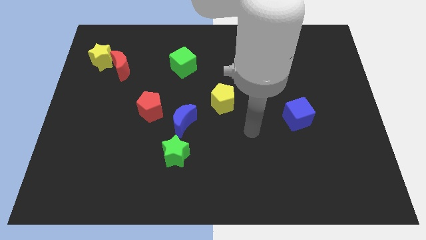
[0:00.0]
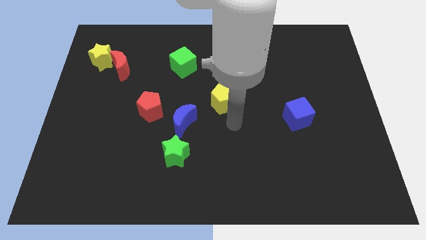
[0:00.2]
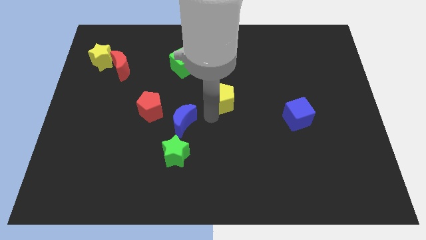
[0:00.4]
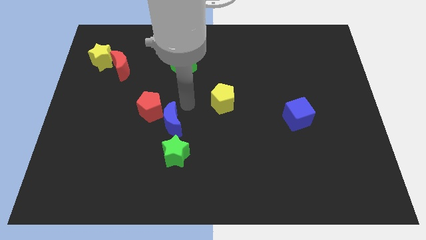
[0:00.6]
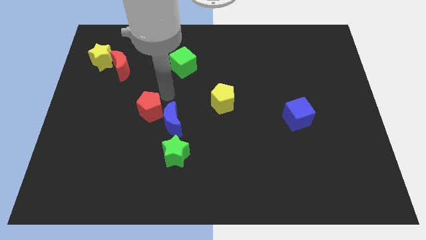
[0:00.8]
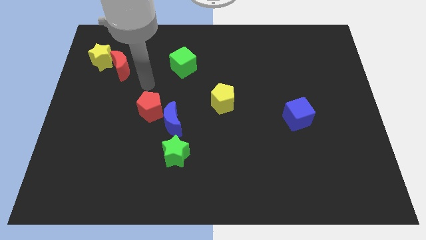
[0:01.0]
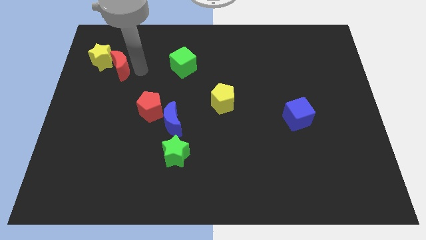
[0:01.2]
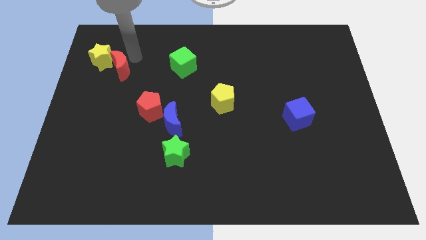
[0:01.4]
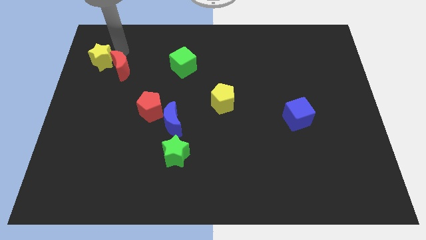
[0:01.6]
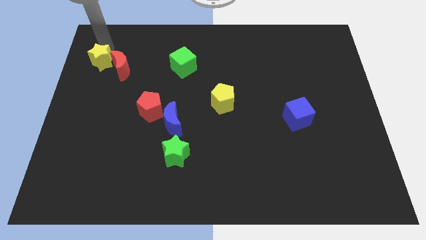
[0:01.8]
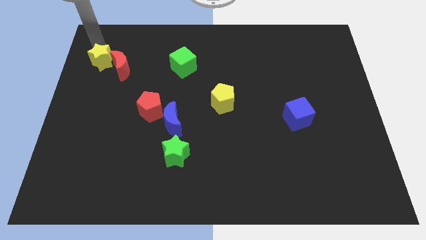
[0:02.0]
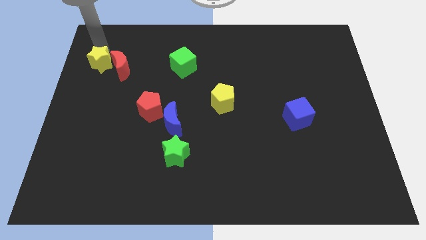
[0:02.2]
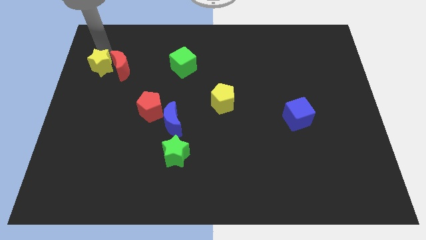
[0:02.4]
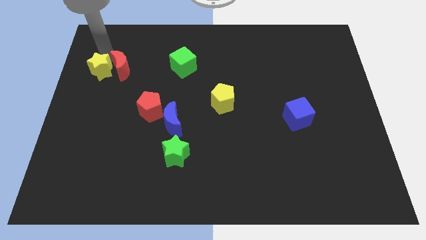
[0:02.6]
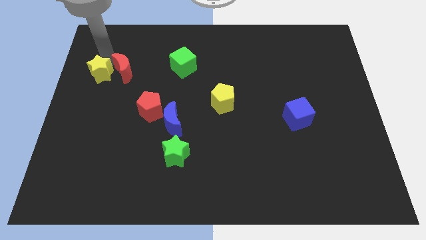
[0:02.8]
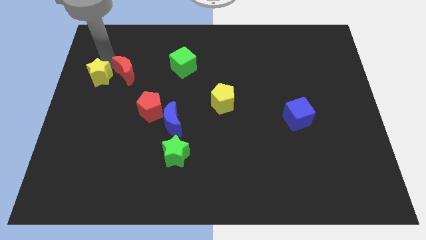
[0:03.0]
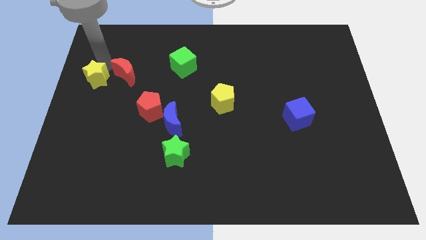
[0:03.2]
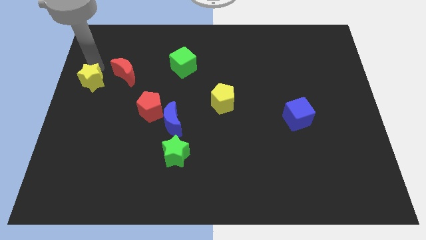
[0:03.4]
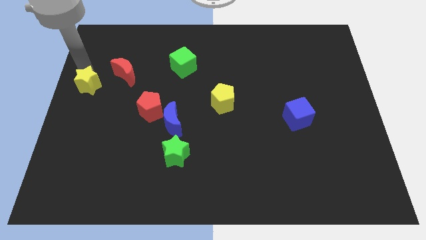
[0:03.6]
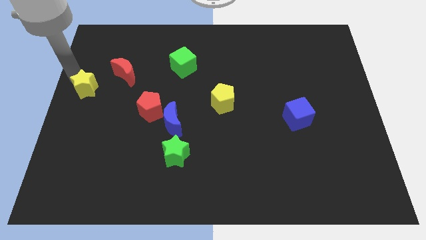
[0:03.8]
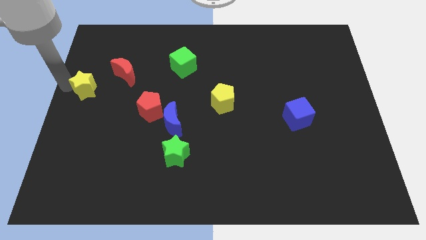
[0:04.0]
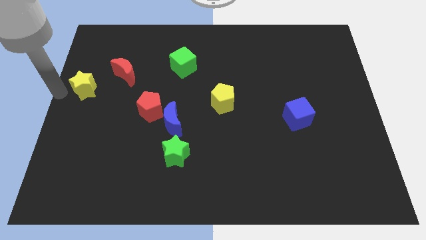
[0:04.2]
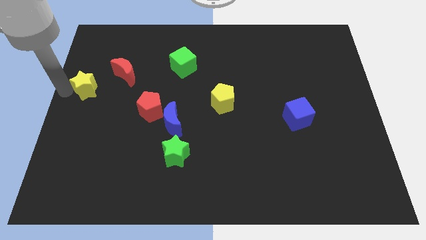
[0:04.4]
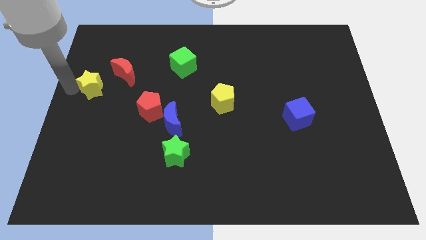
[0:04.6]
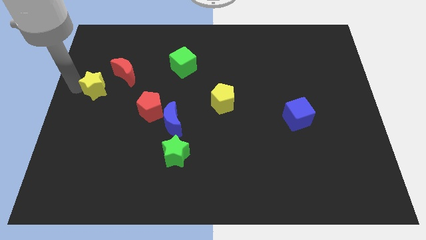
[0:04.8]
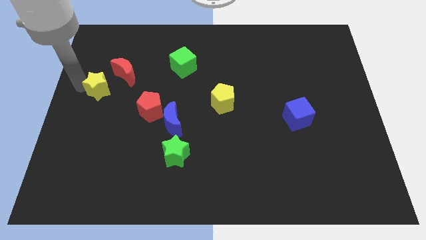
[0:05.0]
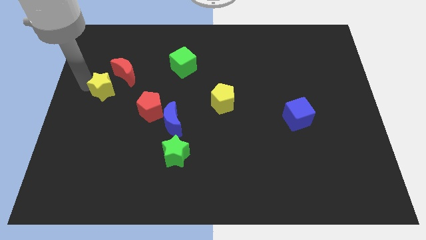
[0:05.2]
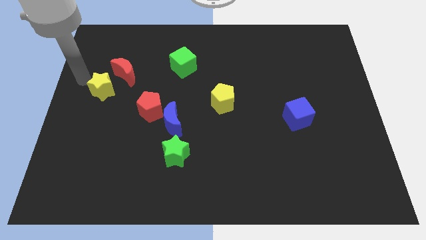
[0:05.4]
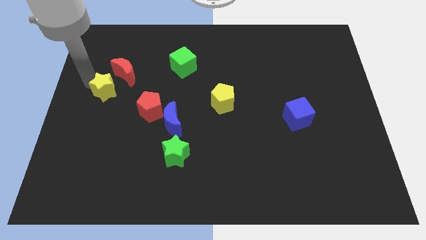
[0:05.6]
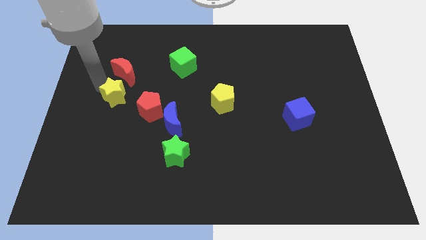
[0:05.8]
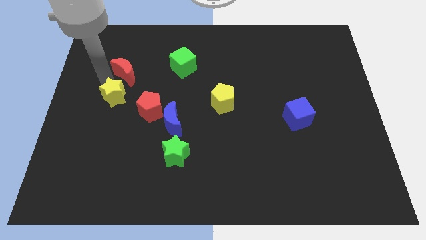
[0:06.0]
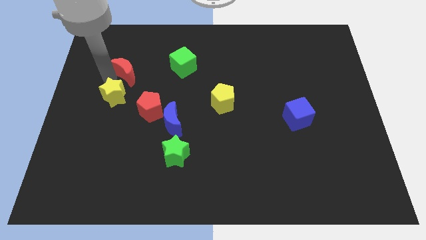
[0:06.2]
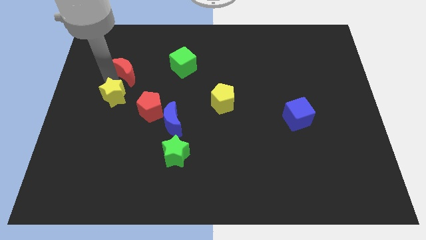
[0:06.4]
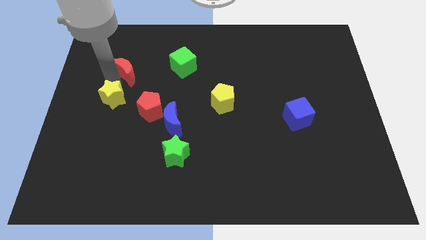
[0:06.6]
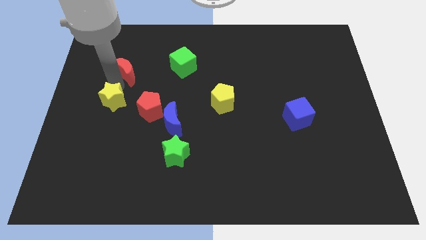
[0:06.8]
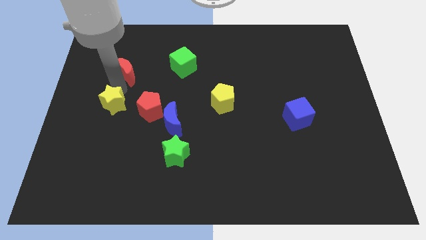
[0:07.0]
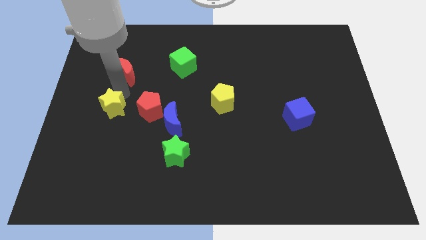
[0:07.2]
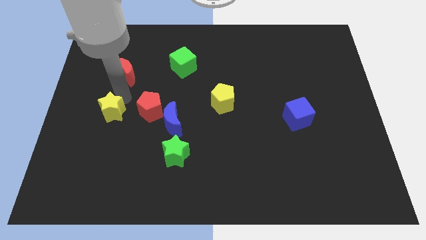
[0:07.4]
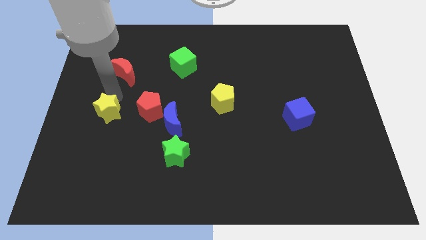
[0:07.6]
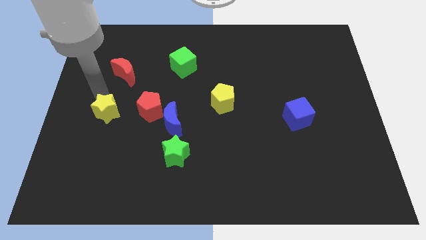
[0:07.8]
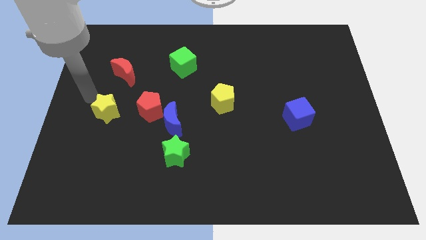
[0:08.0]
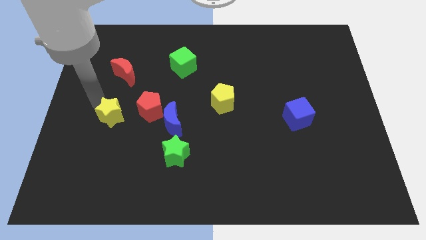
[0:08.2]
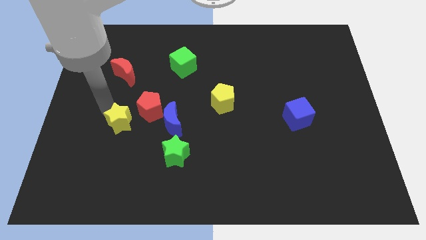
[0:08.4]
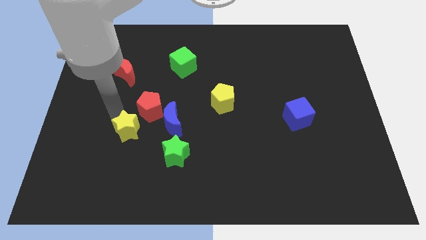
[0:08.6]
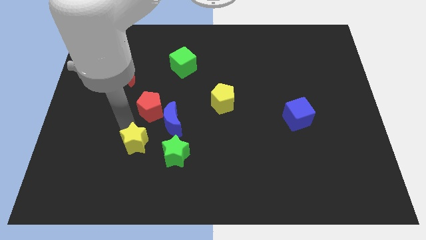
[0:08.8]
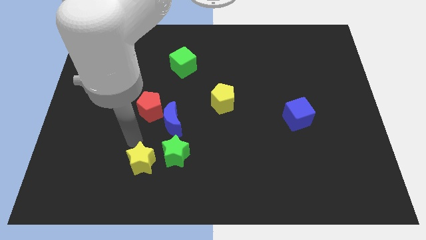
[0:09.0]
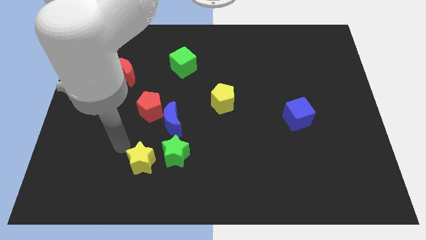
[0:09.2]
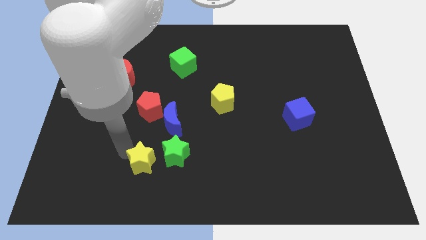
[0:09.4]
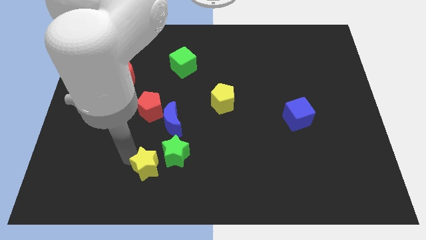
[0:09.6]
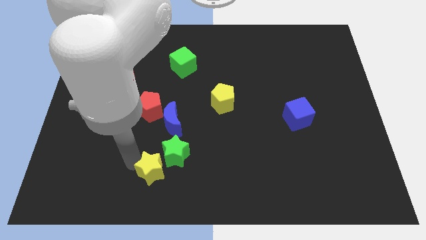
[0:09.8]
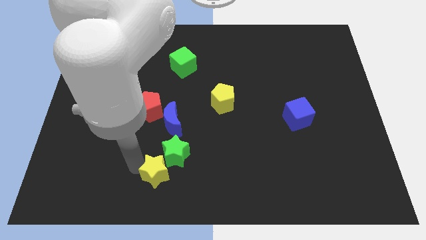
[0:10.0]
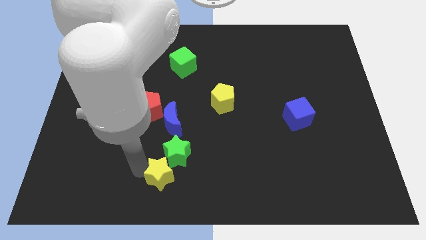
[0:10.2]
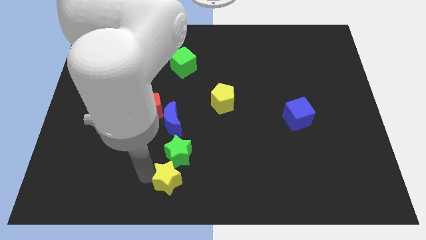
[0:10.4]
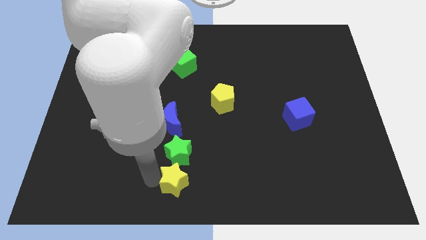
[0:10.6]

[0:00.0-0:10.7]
slide the yellow star diagonally down and to the right of the green star

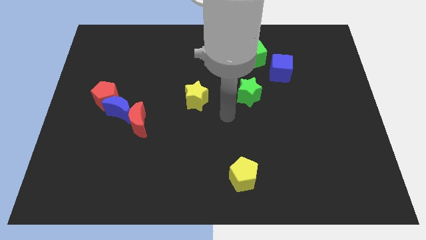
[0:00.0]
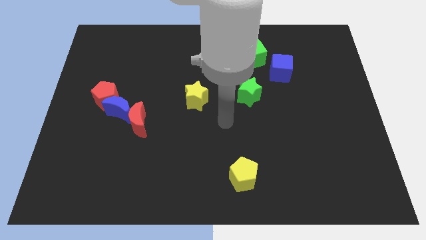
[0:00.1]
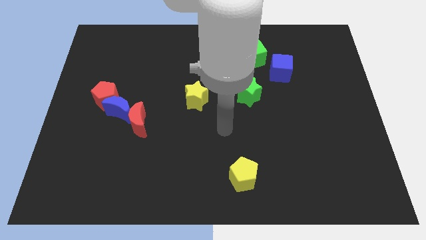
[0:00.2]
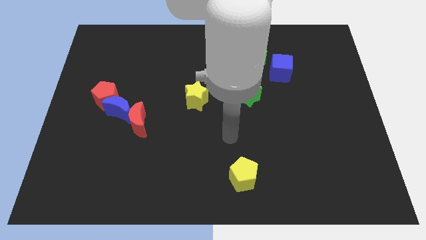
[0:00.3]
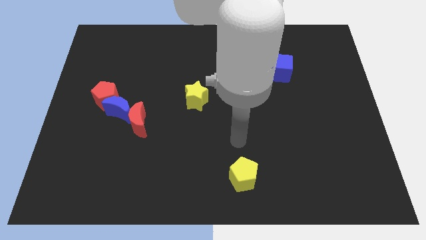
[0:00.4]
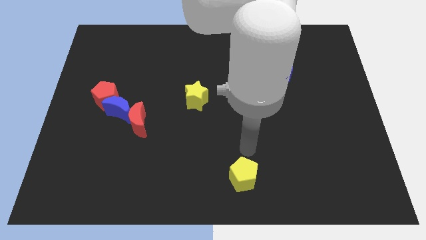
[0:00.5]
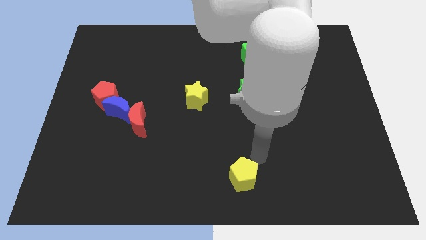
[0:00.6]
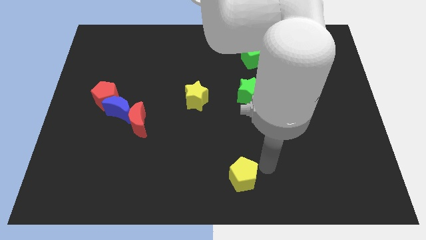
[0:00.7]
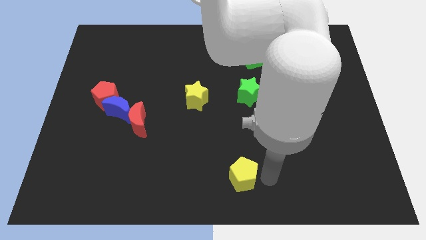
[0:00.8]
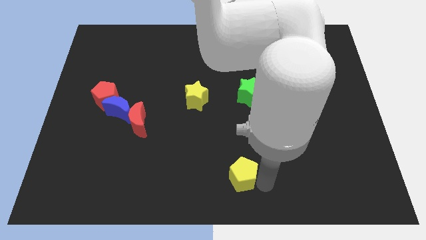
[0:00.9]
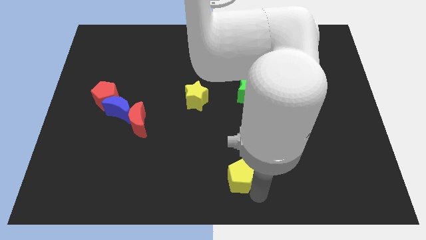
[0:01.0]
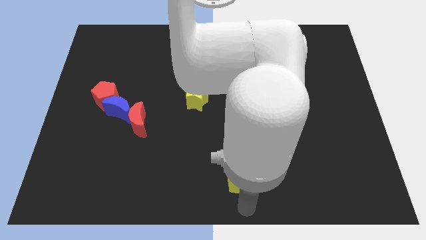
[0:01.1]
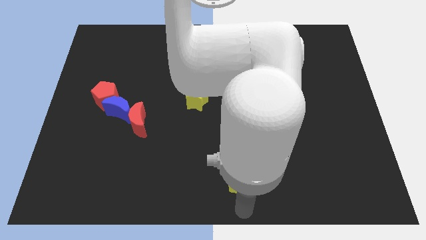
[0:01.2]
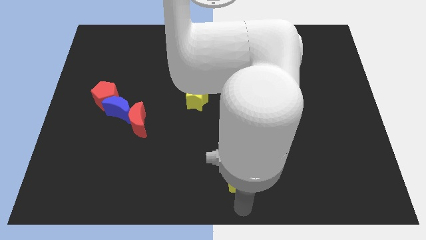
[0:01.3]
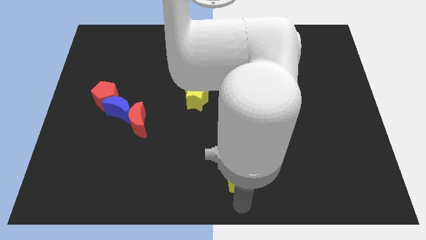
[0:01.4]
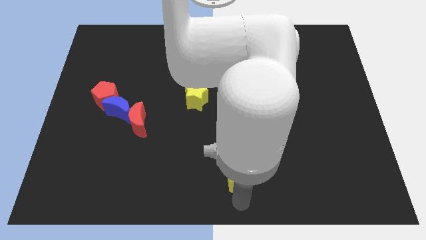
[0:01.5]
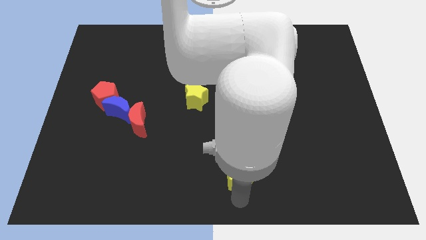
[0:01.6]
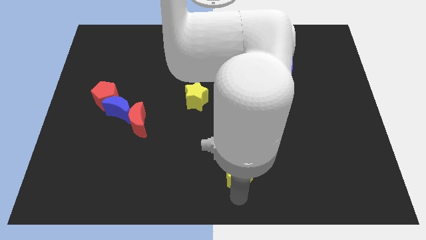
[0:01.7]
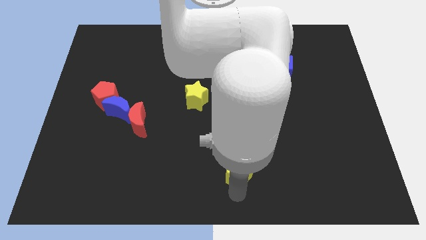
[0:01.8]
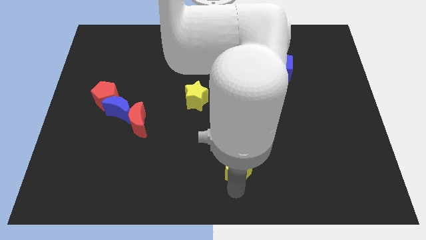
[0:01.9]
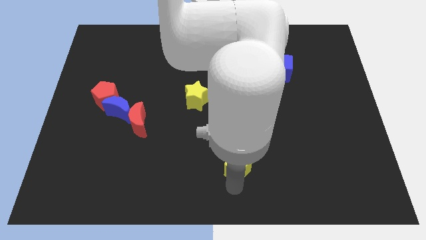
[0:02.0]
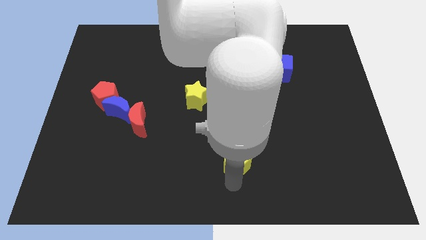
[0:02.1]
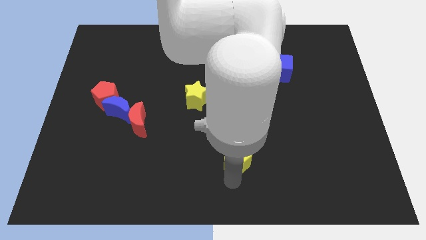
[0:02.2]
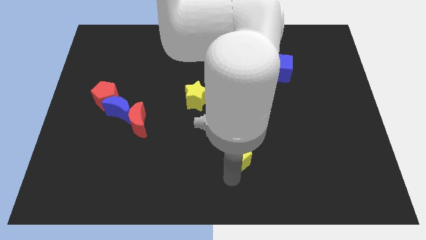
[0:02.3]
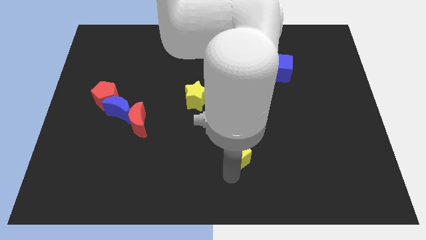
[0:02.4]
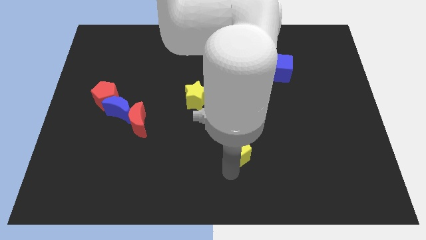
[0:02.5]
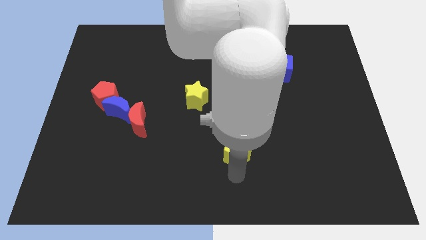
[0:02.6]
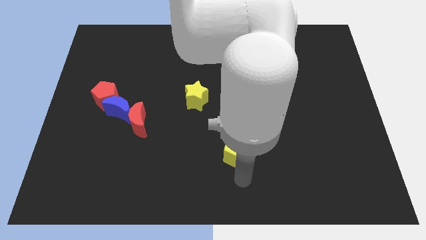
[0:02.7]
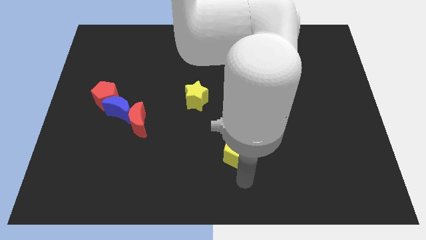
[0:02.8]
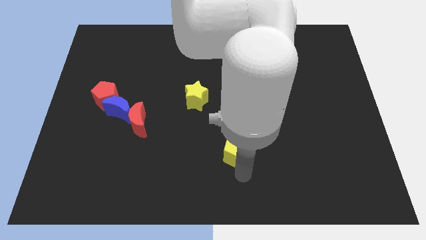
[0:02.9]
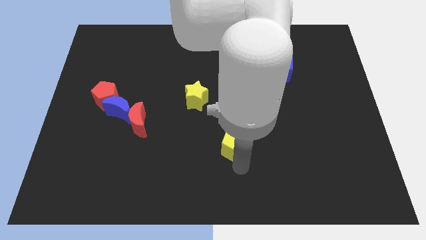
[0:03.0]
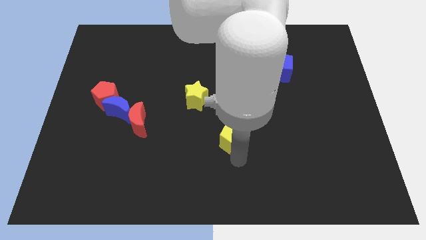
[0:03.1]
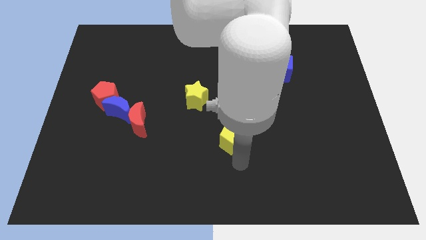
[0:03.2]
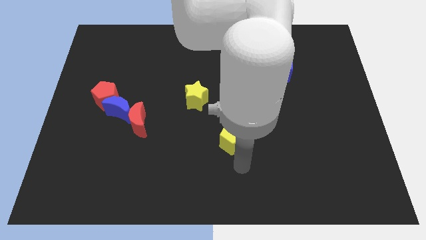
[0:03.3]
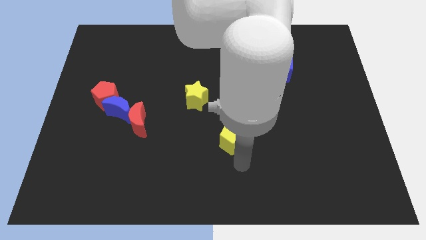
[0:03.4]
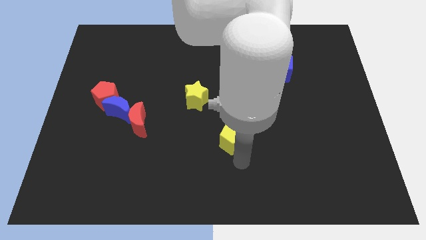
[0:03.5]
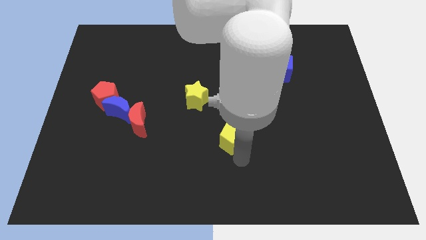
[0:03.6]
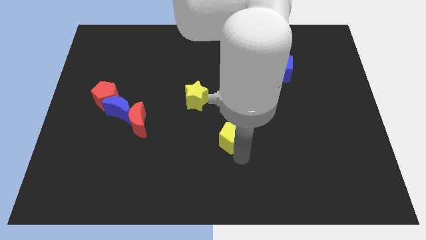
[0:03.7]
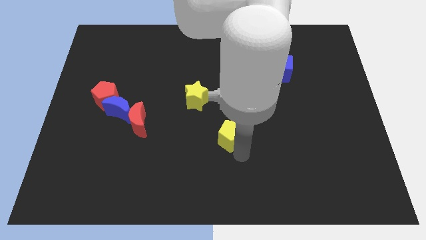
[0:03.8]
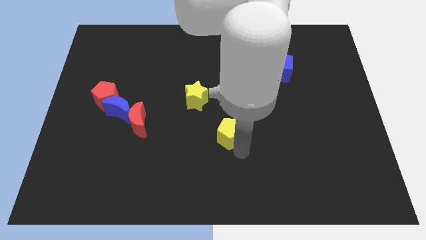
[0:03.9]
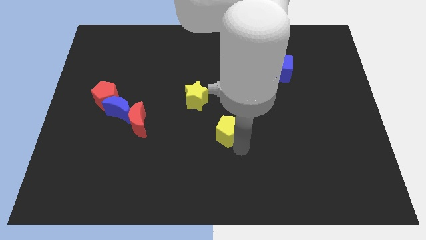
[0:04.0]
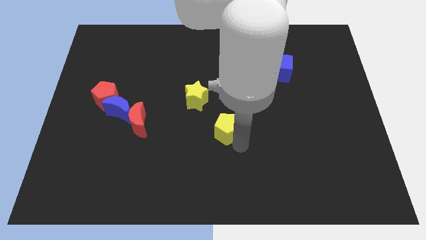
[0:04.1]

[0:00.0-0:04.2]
put the yellow pentagon diagonally down and to the left of the green star
